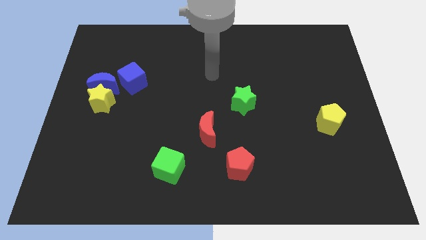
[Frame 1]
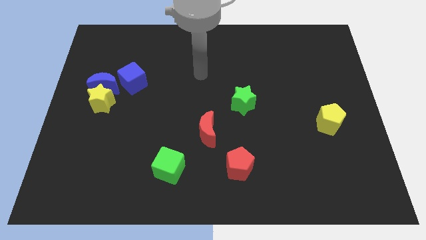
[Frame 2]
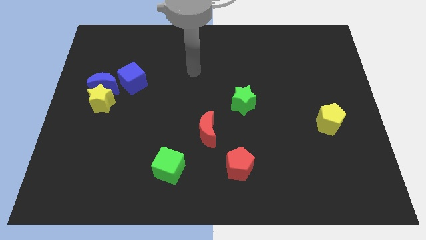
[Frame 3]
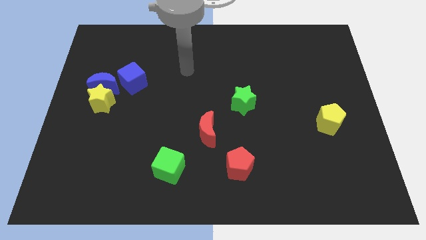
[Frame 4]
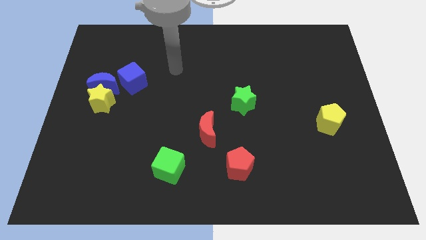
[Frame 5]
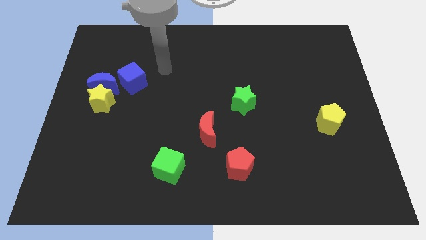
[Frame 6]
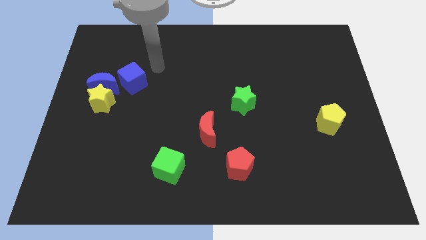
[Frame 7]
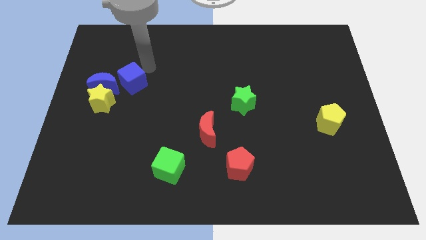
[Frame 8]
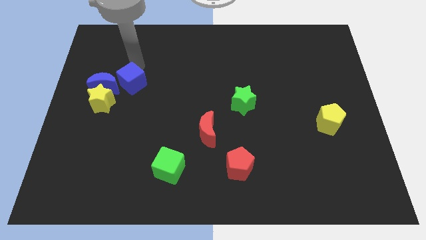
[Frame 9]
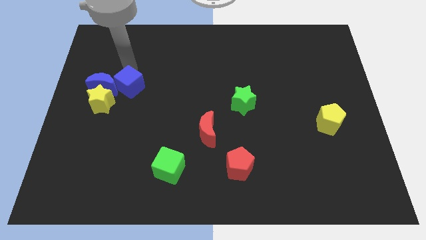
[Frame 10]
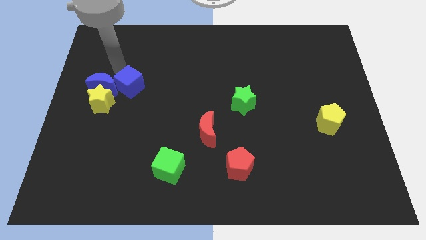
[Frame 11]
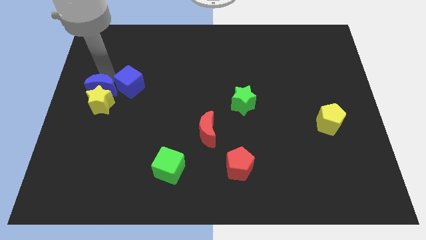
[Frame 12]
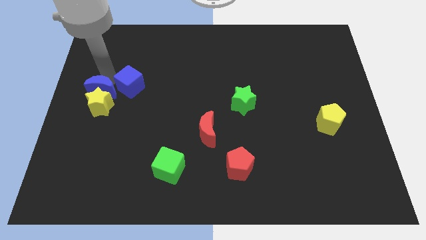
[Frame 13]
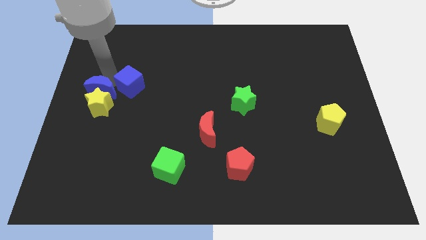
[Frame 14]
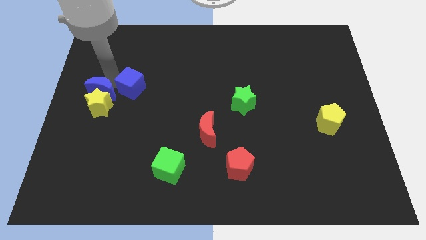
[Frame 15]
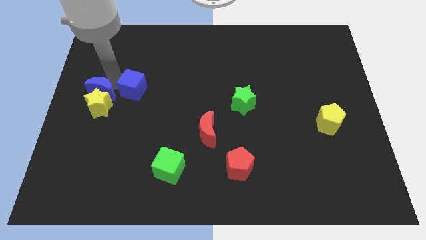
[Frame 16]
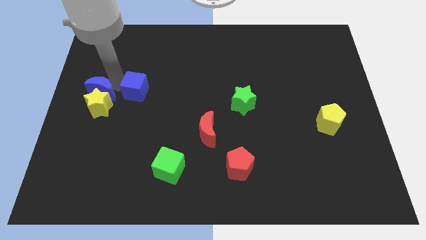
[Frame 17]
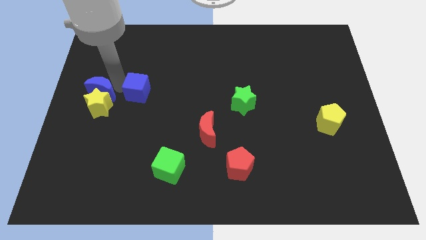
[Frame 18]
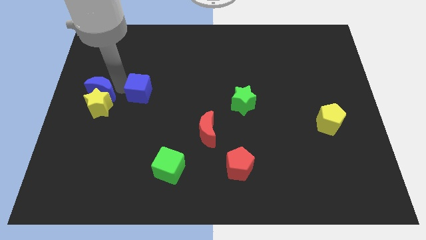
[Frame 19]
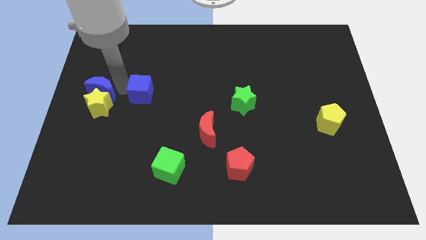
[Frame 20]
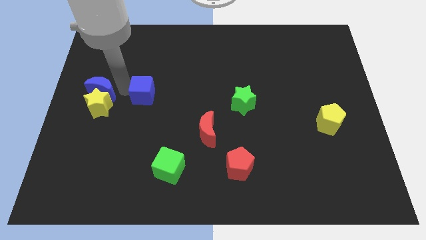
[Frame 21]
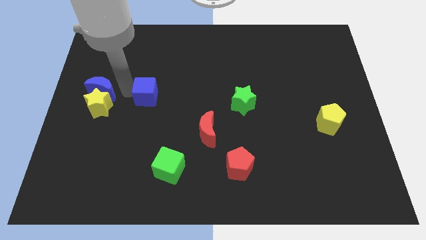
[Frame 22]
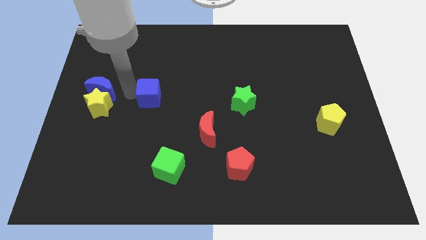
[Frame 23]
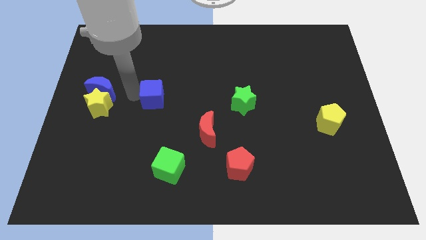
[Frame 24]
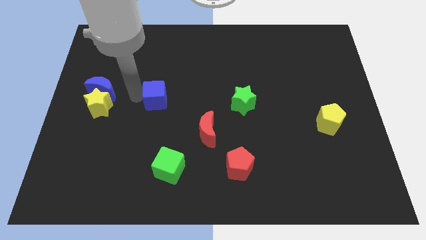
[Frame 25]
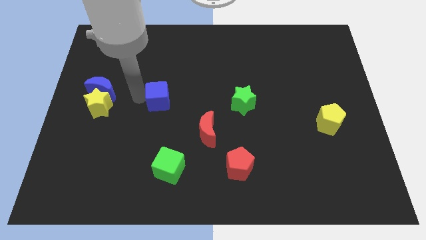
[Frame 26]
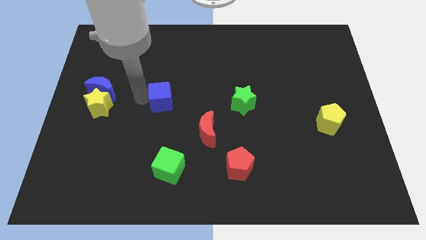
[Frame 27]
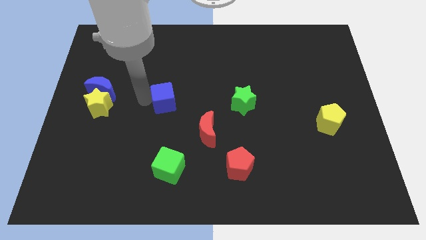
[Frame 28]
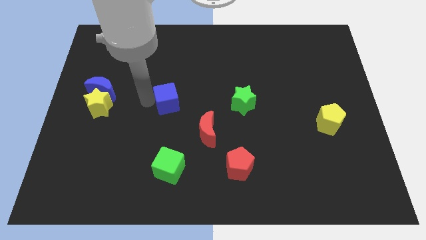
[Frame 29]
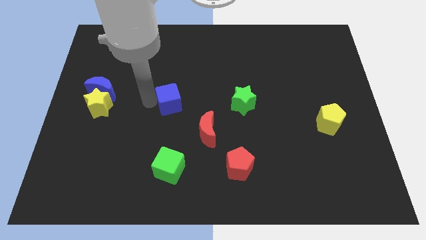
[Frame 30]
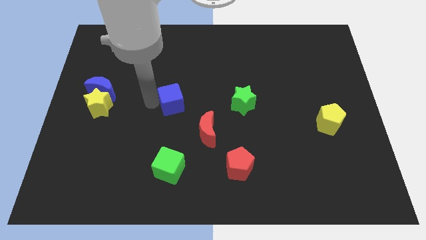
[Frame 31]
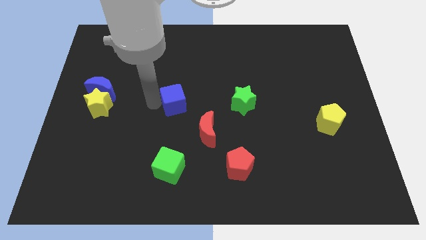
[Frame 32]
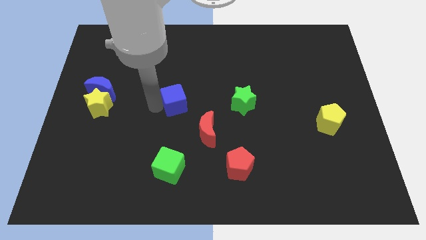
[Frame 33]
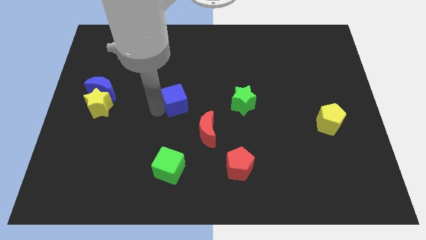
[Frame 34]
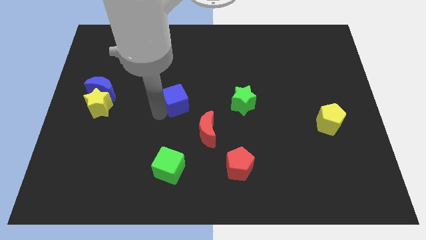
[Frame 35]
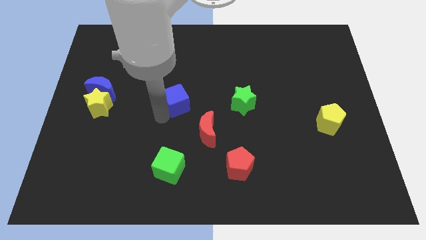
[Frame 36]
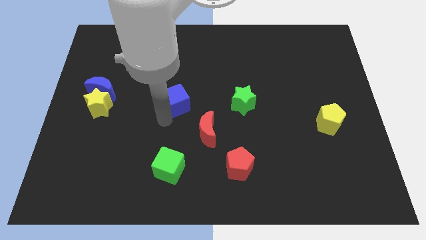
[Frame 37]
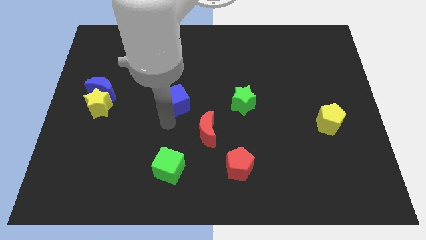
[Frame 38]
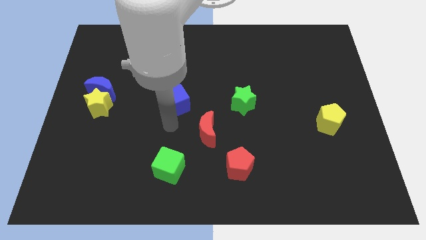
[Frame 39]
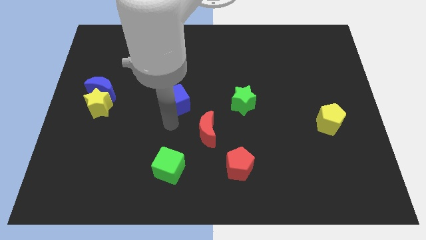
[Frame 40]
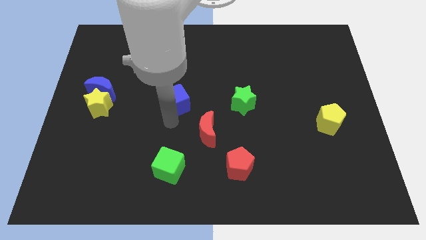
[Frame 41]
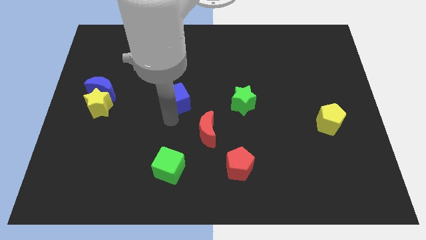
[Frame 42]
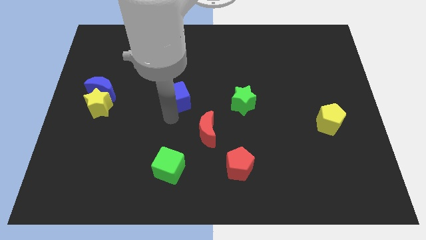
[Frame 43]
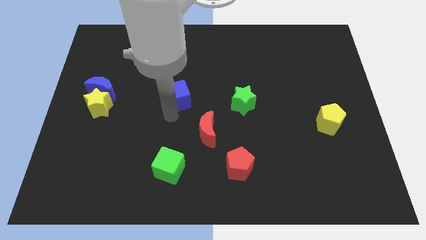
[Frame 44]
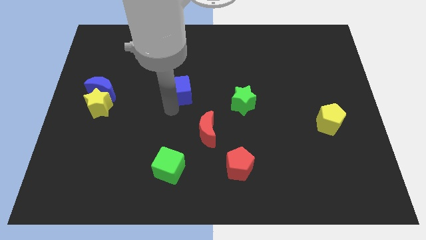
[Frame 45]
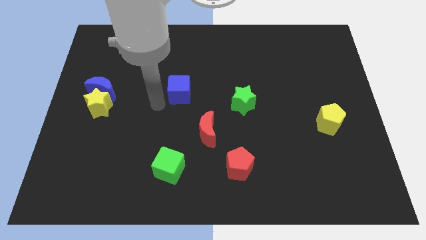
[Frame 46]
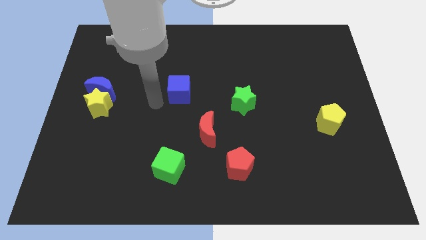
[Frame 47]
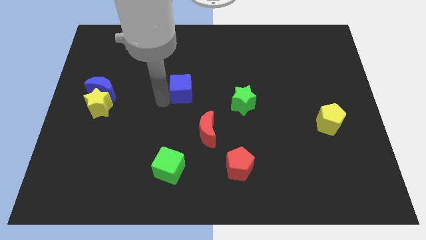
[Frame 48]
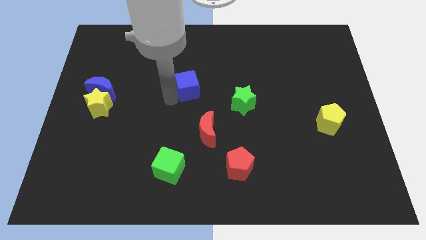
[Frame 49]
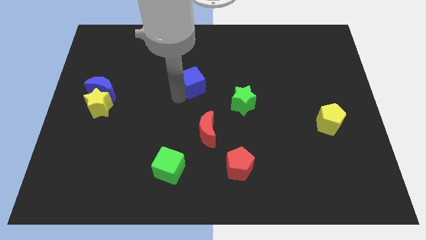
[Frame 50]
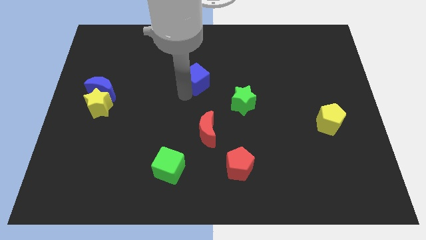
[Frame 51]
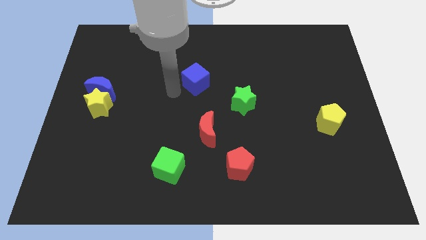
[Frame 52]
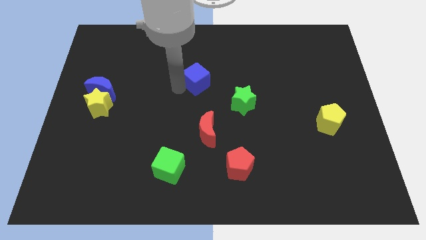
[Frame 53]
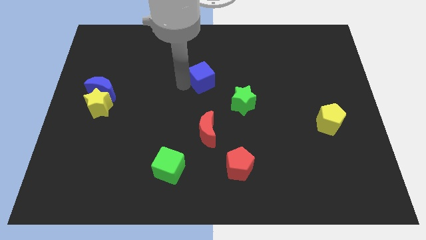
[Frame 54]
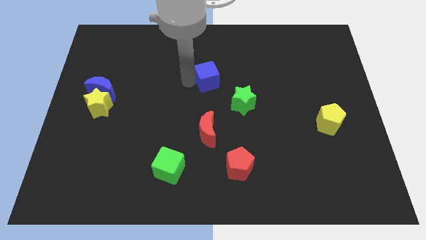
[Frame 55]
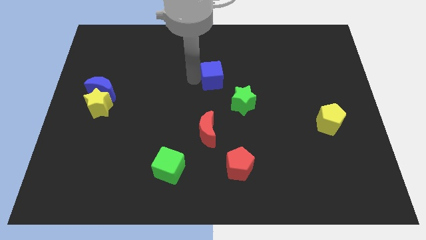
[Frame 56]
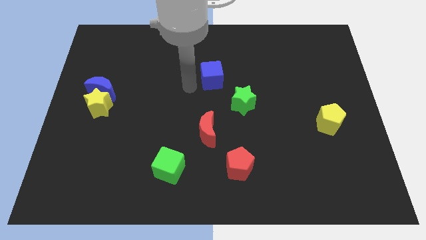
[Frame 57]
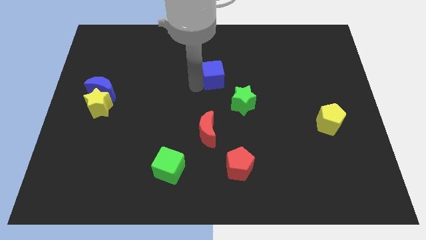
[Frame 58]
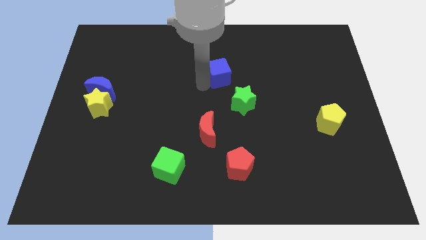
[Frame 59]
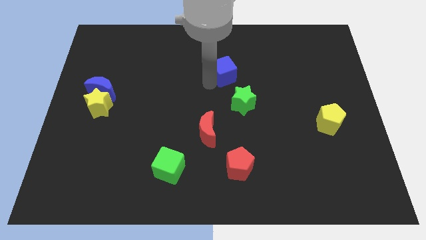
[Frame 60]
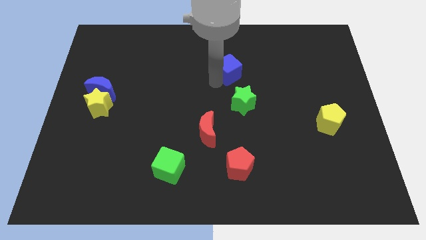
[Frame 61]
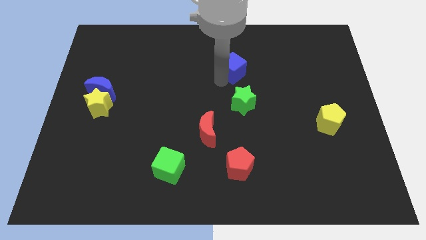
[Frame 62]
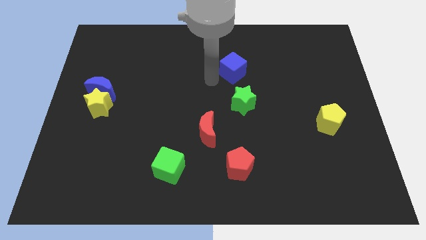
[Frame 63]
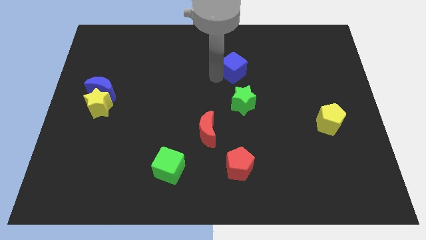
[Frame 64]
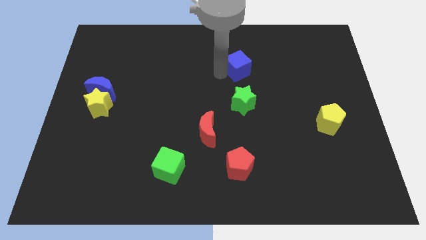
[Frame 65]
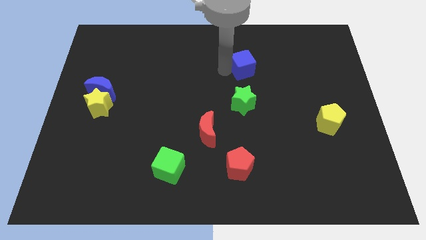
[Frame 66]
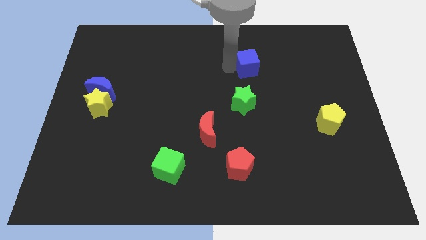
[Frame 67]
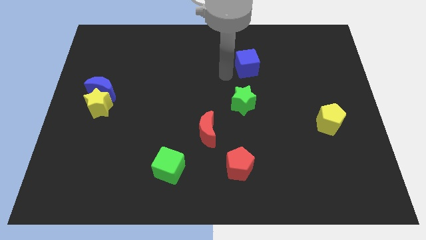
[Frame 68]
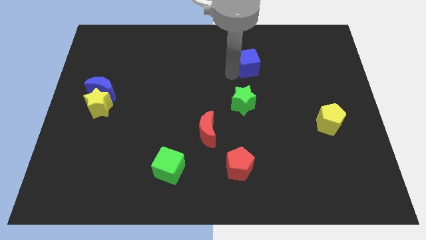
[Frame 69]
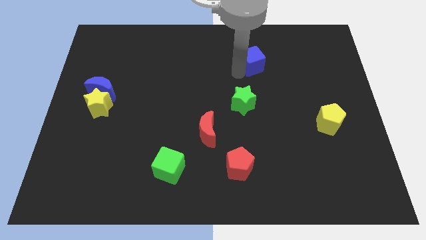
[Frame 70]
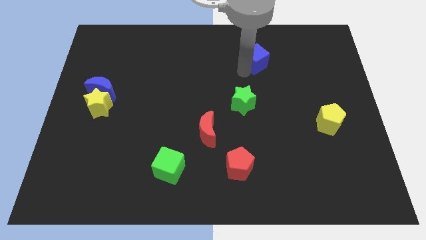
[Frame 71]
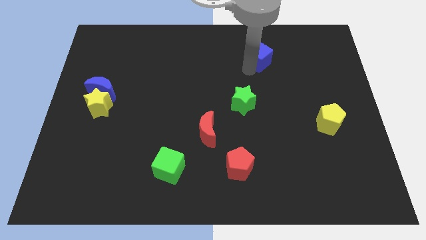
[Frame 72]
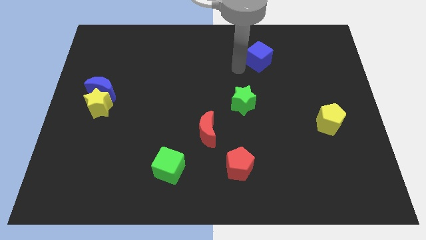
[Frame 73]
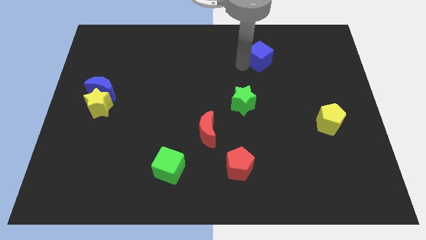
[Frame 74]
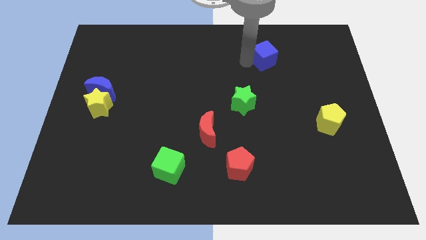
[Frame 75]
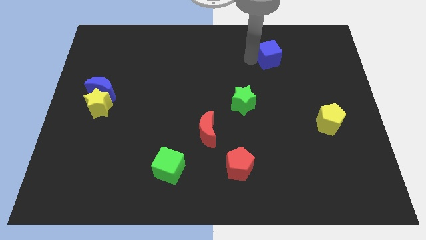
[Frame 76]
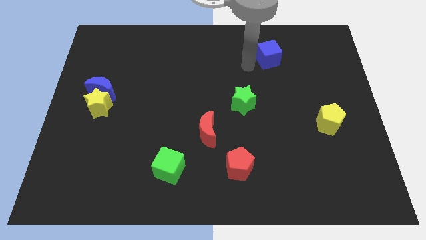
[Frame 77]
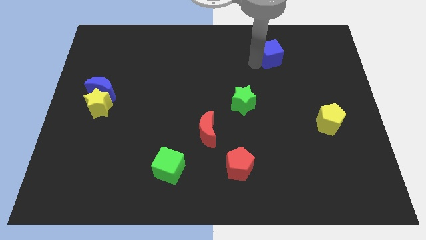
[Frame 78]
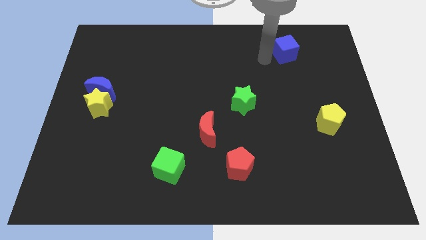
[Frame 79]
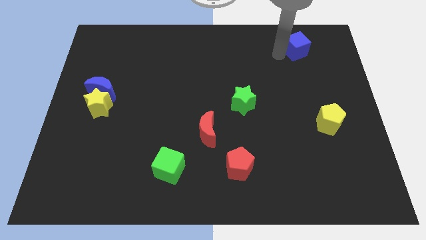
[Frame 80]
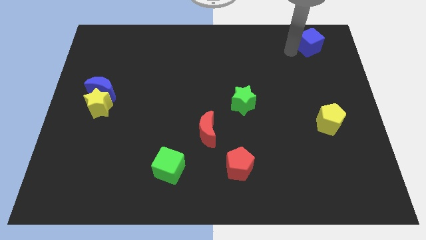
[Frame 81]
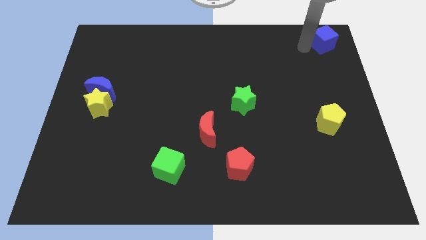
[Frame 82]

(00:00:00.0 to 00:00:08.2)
move the blue cube to the upper right corner
